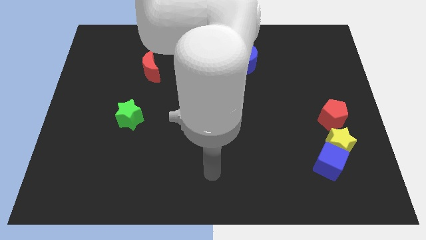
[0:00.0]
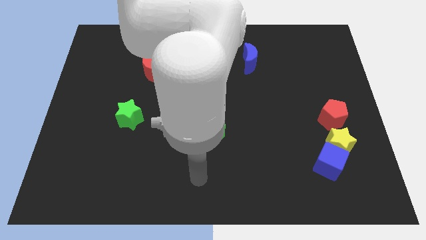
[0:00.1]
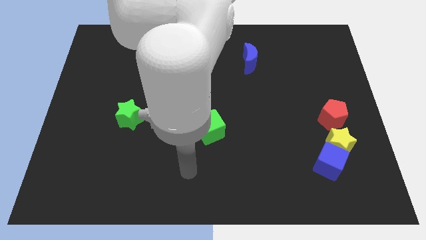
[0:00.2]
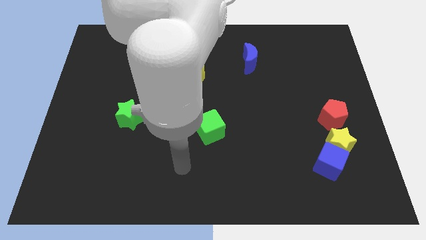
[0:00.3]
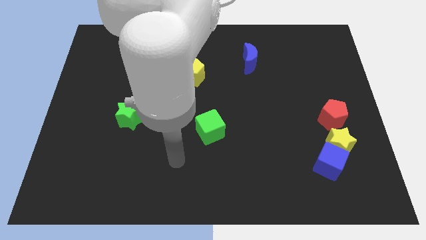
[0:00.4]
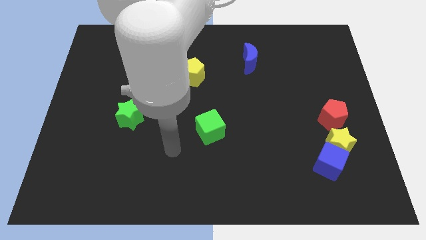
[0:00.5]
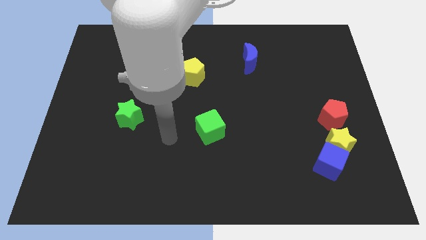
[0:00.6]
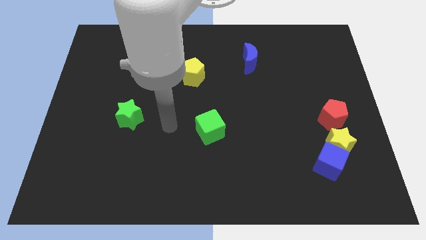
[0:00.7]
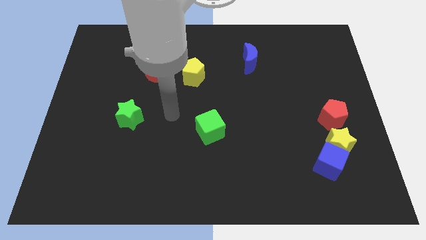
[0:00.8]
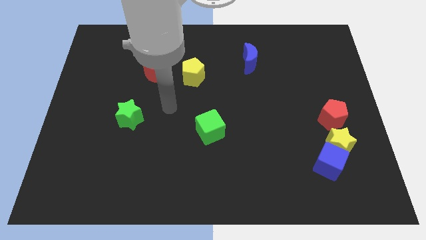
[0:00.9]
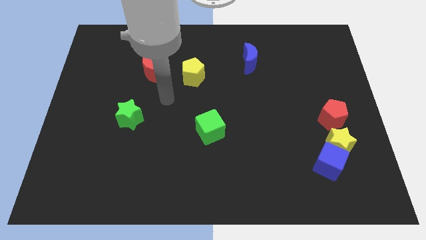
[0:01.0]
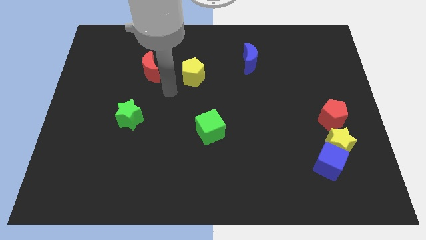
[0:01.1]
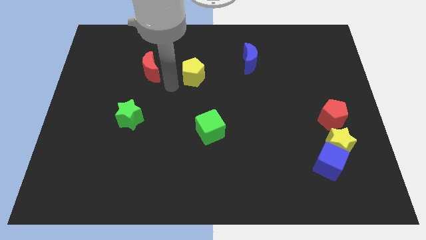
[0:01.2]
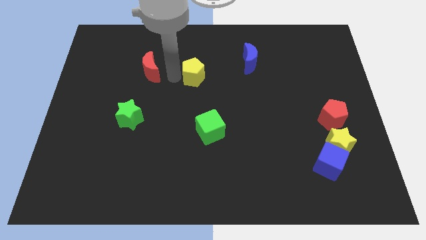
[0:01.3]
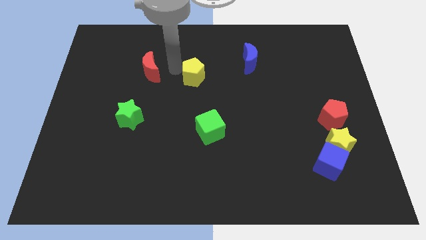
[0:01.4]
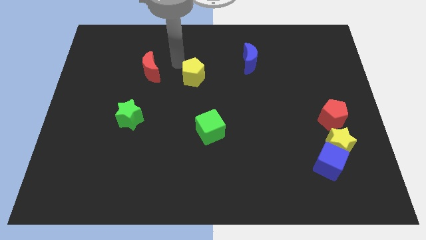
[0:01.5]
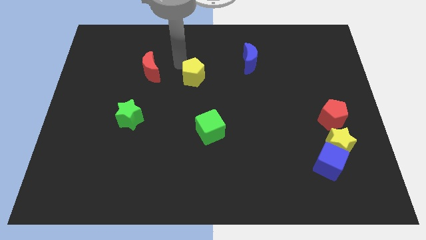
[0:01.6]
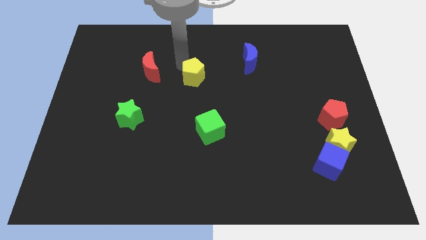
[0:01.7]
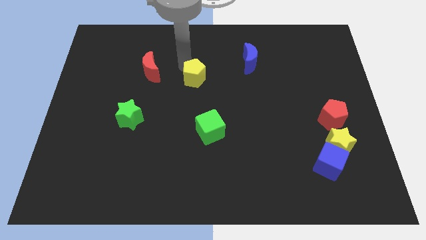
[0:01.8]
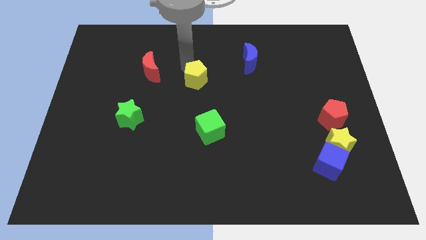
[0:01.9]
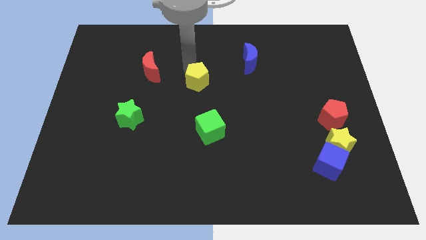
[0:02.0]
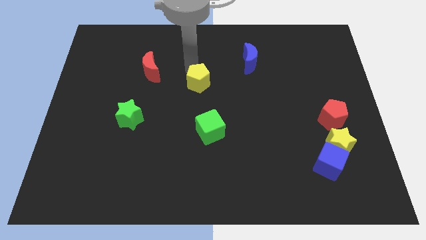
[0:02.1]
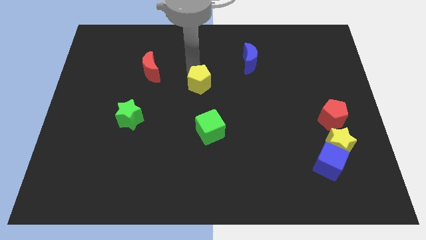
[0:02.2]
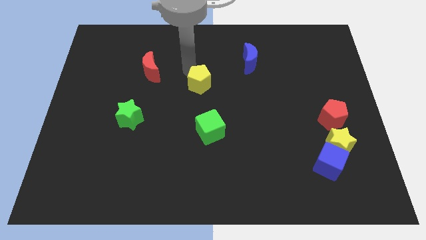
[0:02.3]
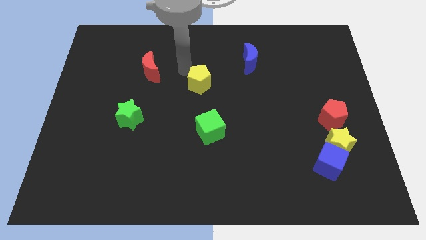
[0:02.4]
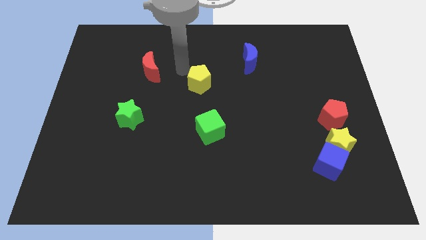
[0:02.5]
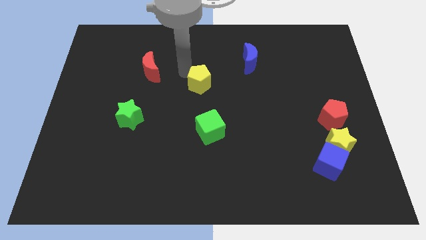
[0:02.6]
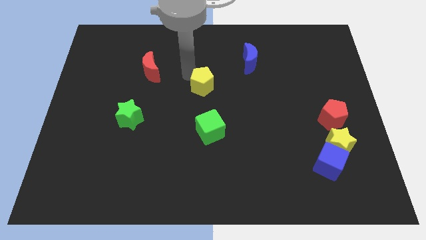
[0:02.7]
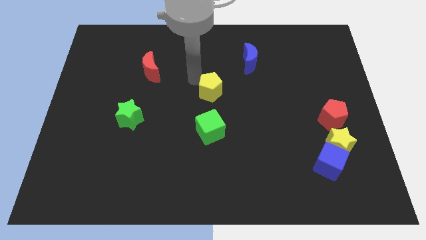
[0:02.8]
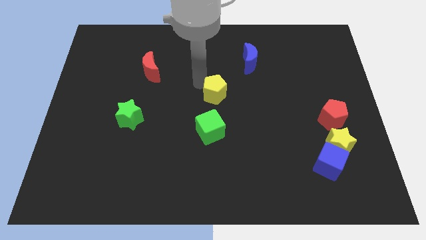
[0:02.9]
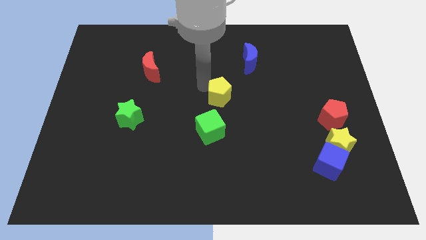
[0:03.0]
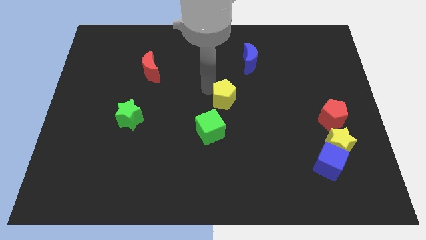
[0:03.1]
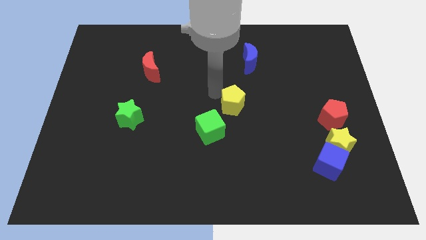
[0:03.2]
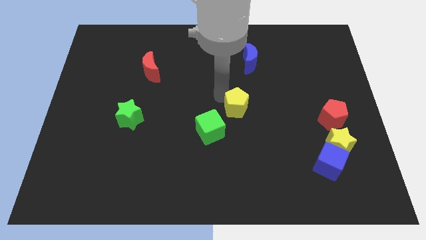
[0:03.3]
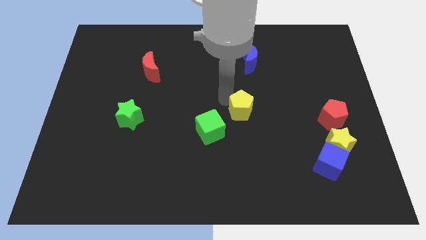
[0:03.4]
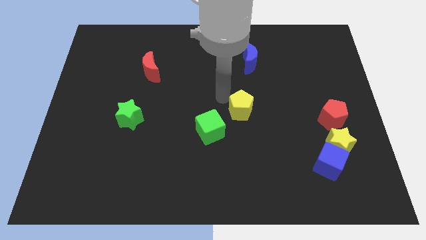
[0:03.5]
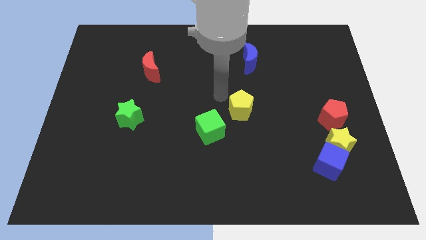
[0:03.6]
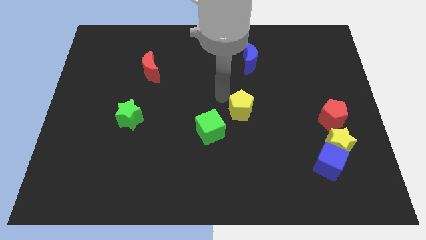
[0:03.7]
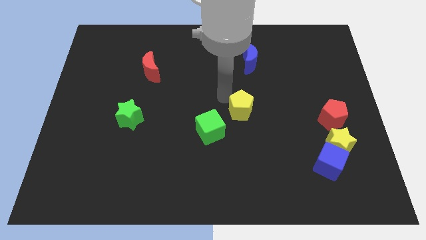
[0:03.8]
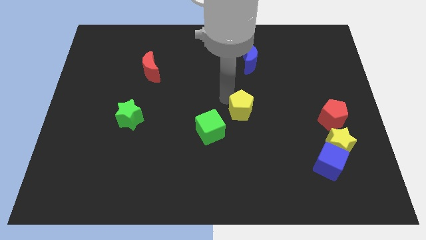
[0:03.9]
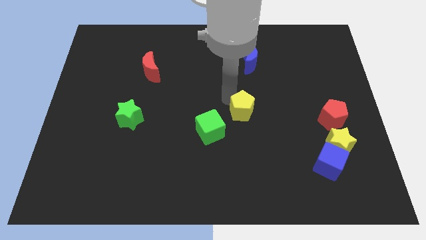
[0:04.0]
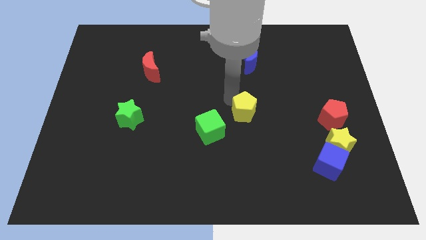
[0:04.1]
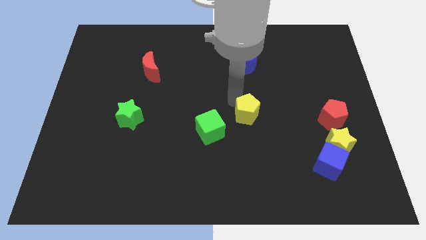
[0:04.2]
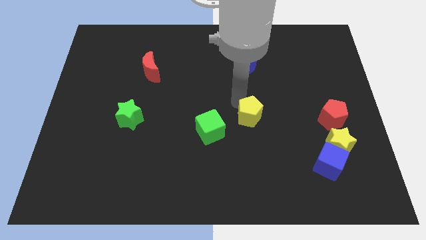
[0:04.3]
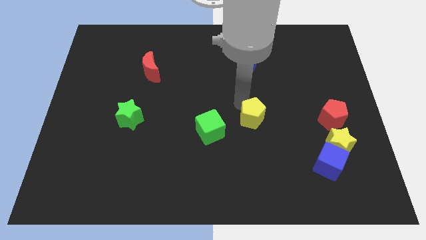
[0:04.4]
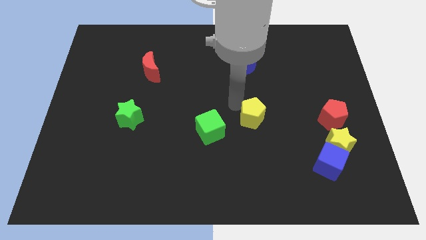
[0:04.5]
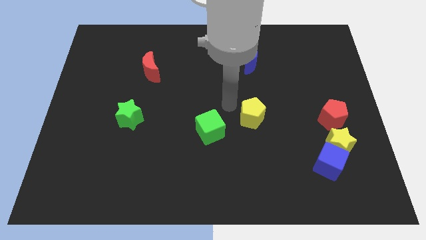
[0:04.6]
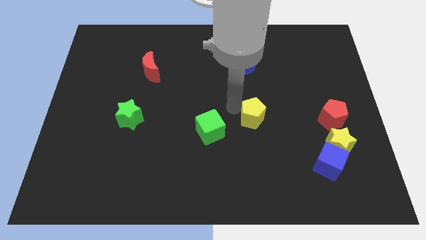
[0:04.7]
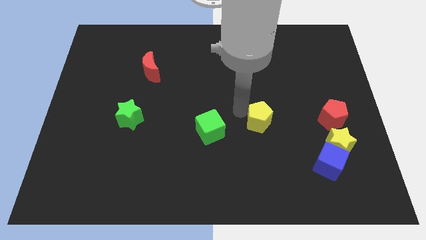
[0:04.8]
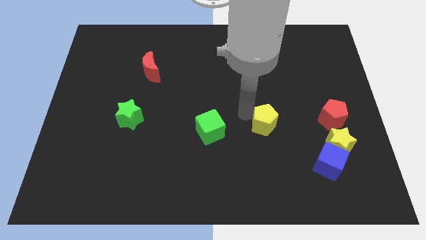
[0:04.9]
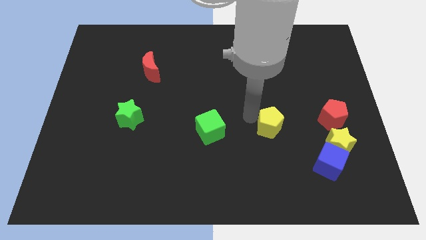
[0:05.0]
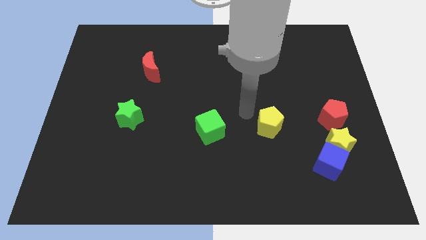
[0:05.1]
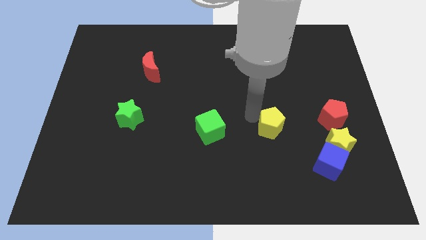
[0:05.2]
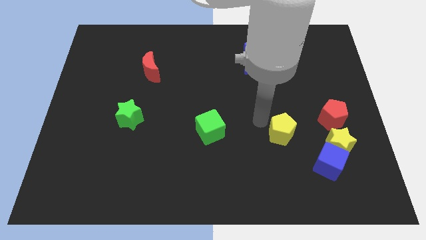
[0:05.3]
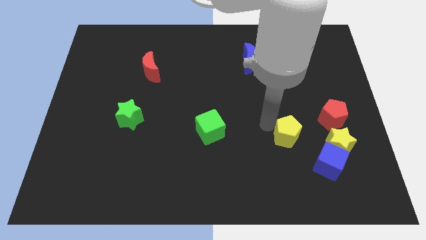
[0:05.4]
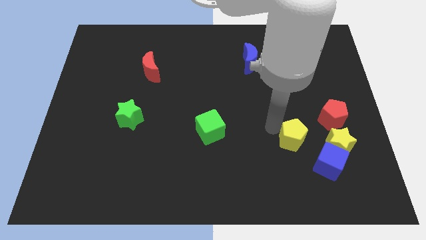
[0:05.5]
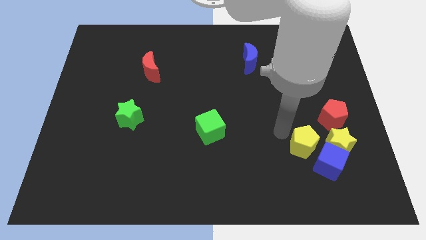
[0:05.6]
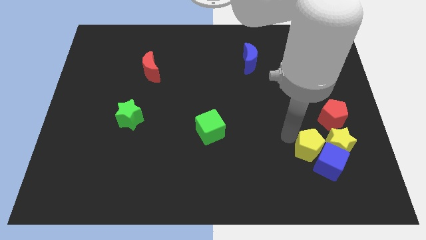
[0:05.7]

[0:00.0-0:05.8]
put the yellow pentagon to the blue cube

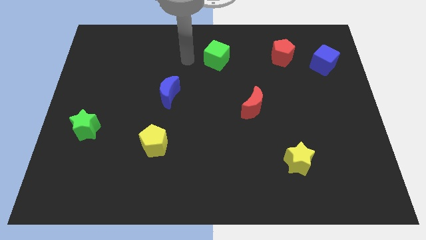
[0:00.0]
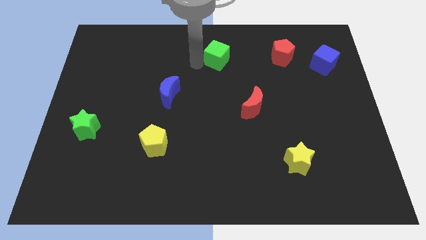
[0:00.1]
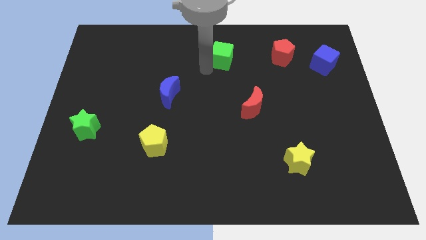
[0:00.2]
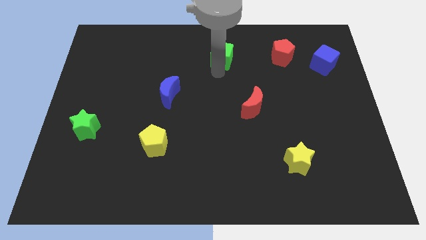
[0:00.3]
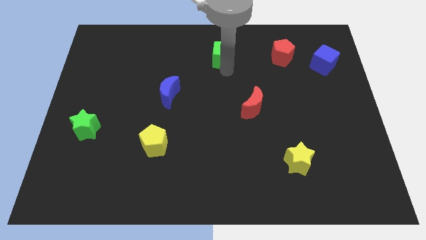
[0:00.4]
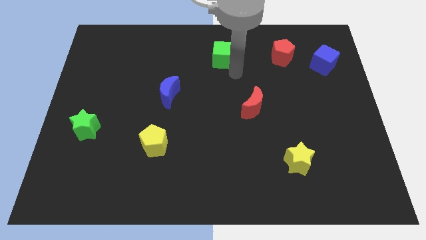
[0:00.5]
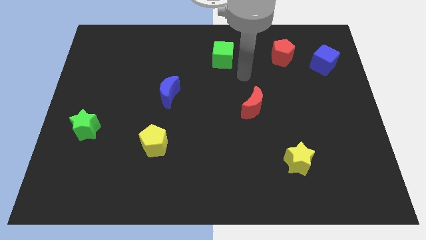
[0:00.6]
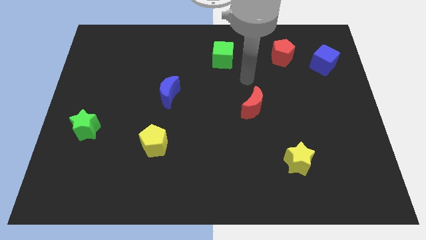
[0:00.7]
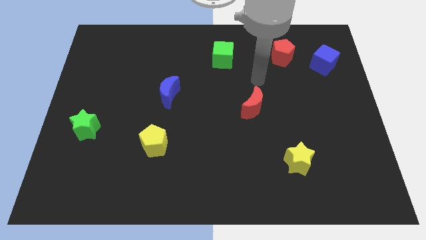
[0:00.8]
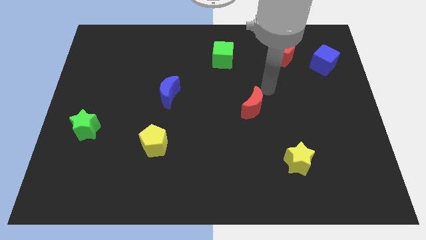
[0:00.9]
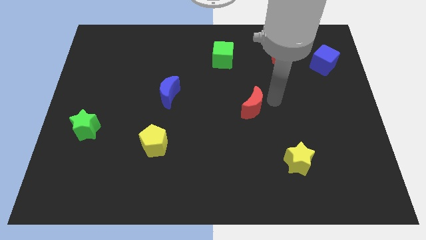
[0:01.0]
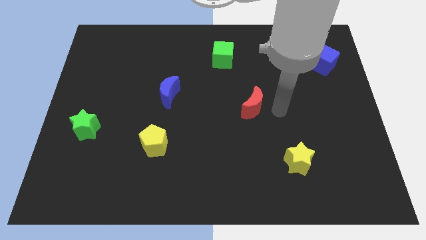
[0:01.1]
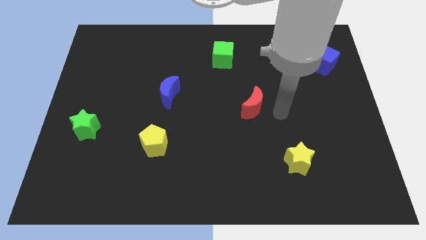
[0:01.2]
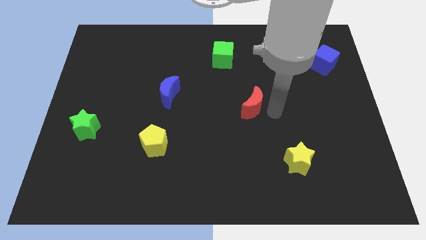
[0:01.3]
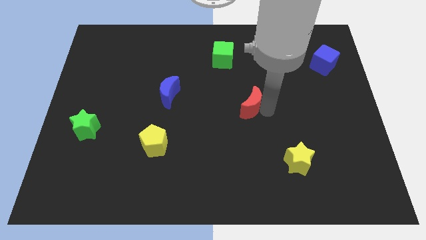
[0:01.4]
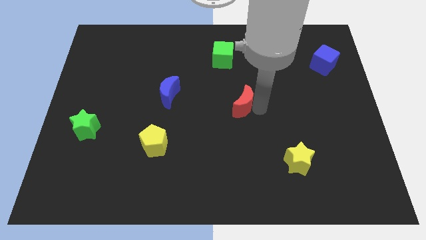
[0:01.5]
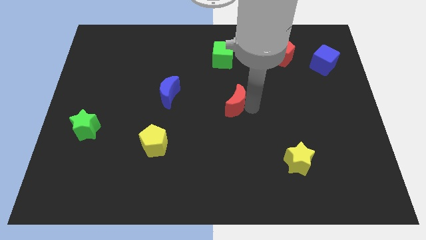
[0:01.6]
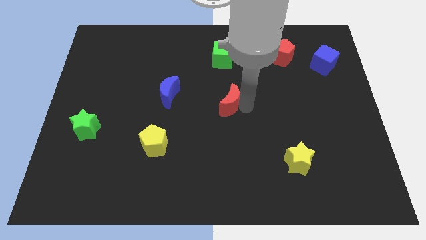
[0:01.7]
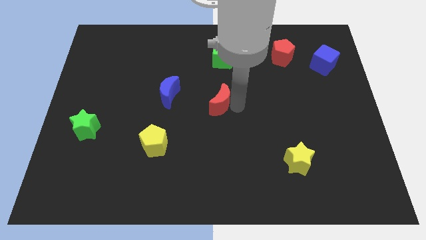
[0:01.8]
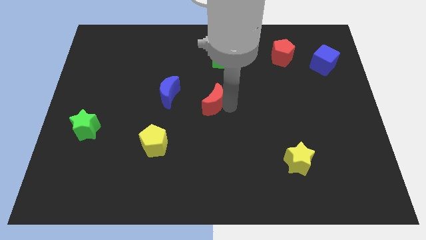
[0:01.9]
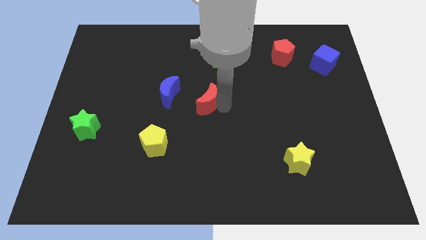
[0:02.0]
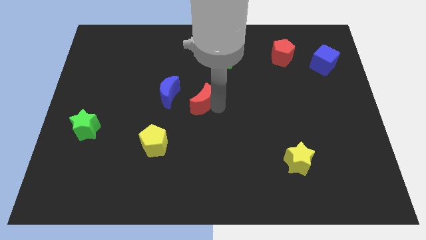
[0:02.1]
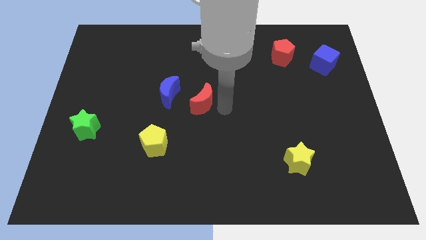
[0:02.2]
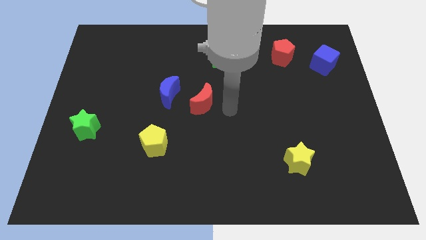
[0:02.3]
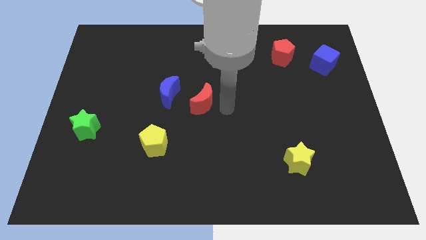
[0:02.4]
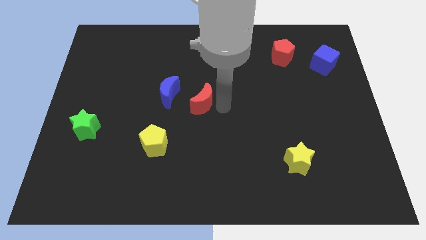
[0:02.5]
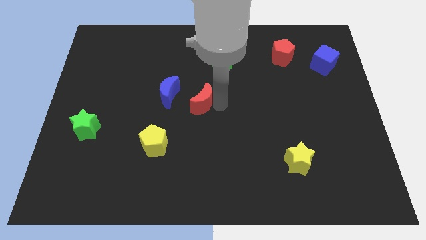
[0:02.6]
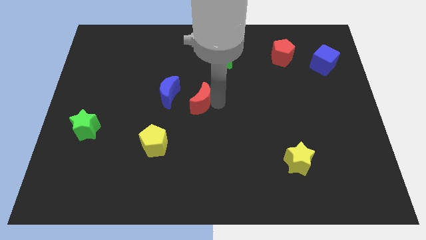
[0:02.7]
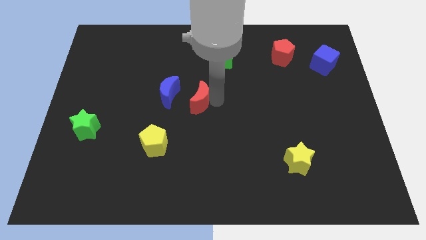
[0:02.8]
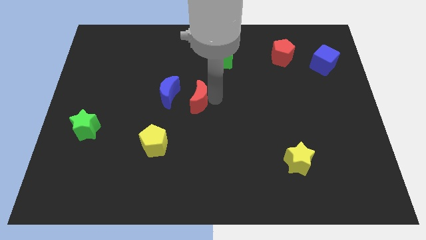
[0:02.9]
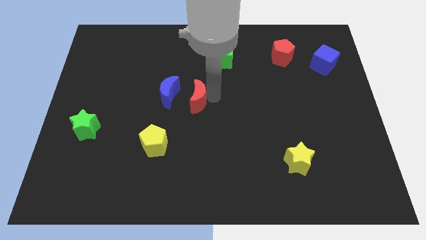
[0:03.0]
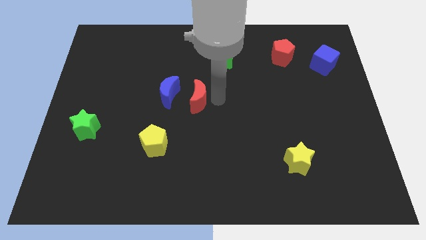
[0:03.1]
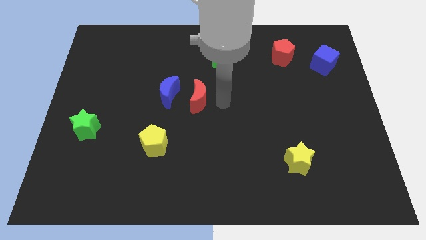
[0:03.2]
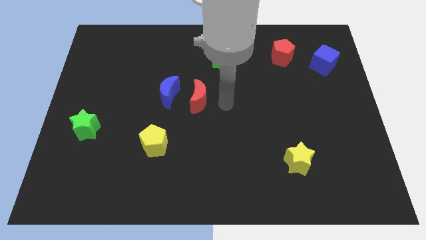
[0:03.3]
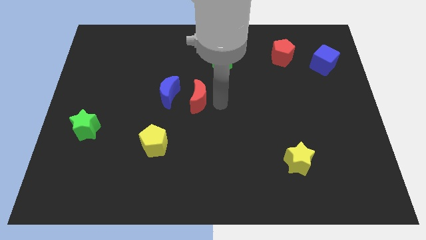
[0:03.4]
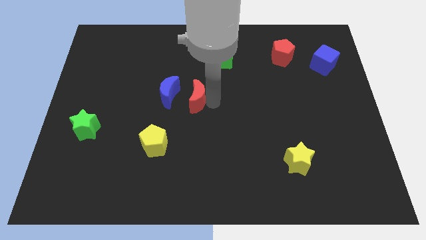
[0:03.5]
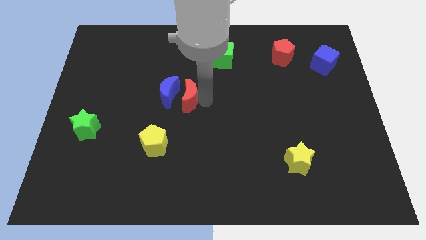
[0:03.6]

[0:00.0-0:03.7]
move the red moon close to the blue moon
